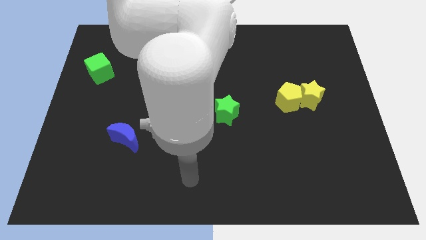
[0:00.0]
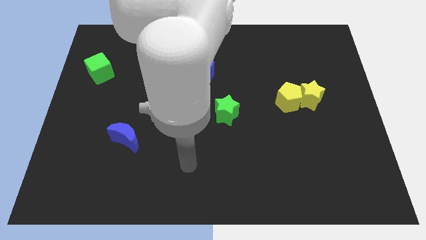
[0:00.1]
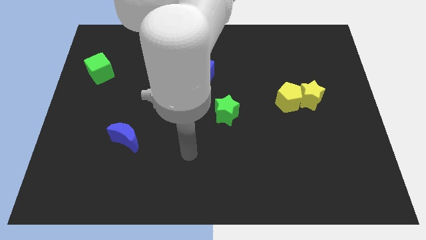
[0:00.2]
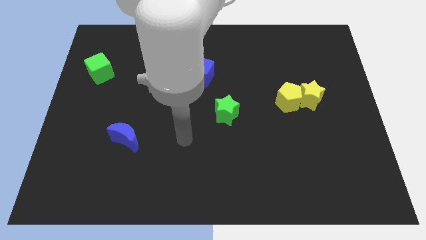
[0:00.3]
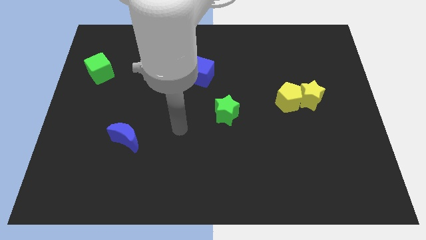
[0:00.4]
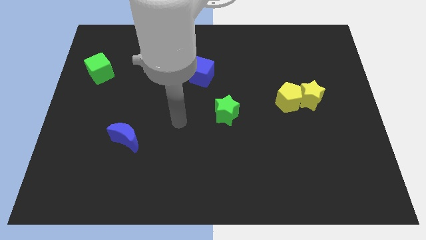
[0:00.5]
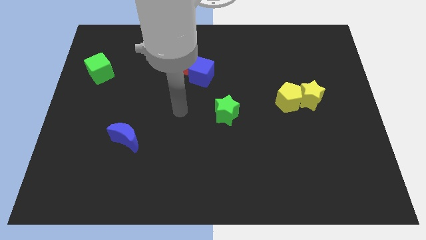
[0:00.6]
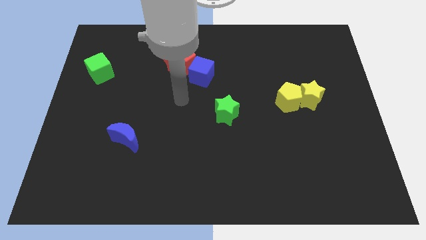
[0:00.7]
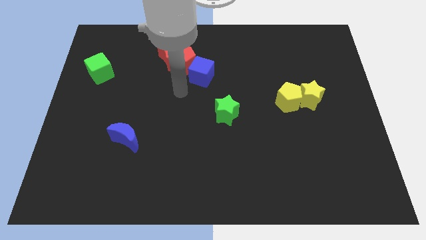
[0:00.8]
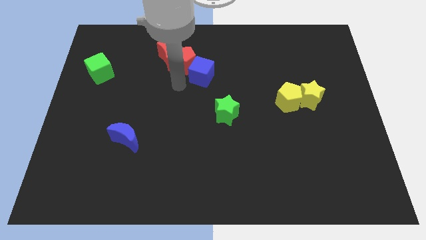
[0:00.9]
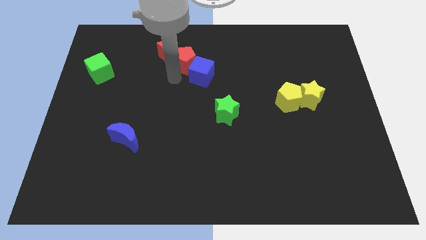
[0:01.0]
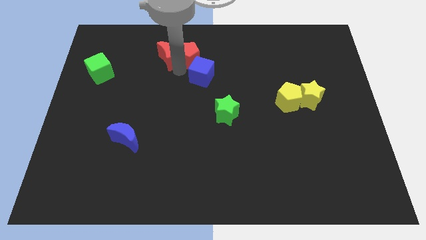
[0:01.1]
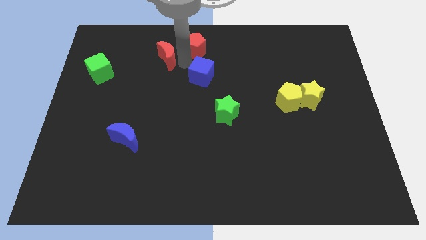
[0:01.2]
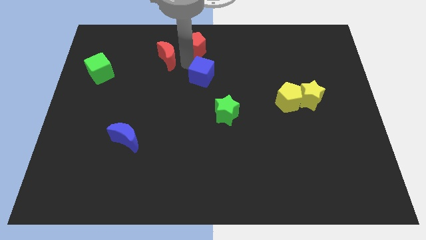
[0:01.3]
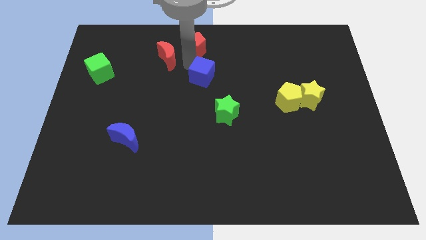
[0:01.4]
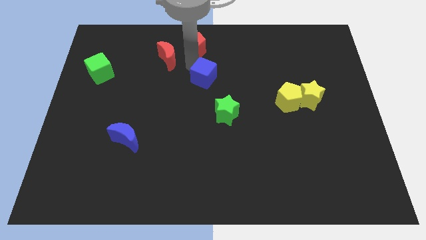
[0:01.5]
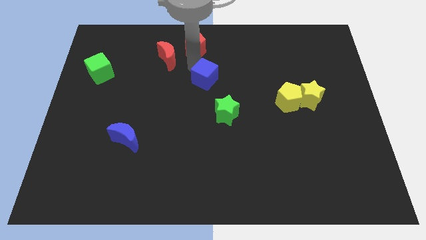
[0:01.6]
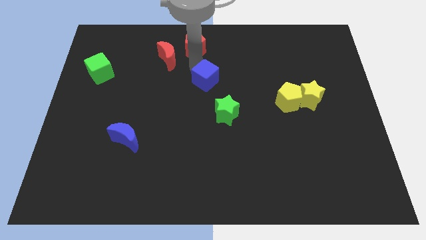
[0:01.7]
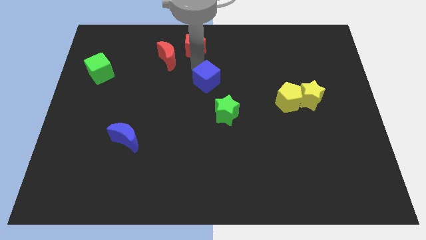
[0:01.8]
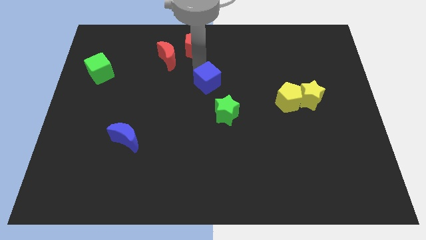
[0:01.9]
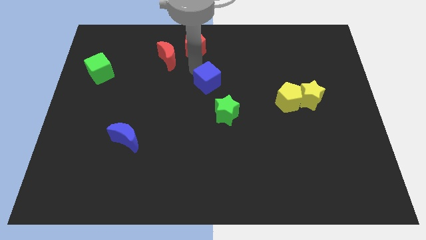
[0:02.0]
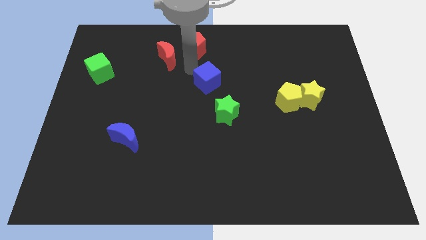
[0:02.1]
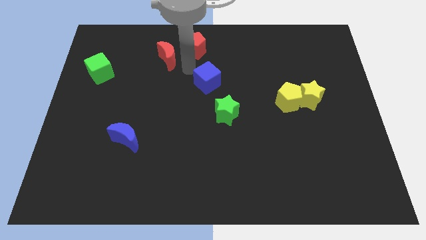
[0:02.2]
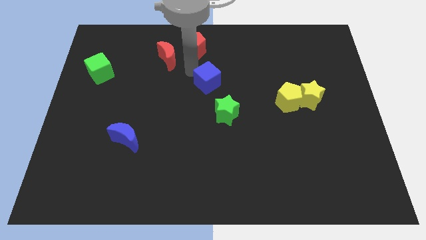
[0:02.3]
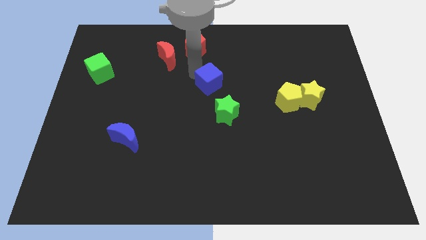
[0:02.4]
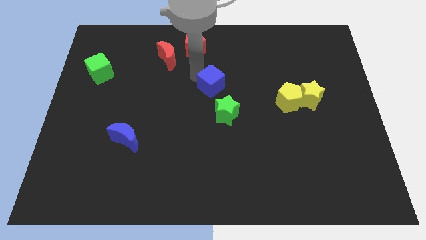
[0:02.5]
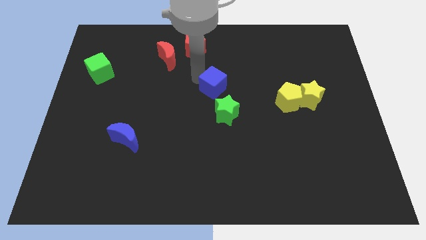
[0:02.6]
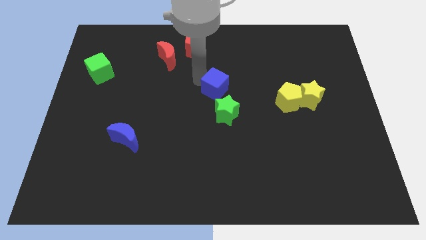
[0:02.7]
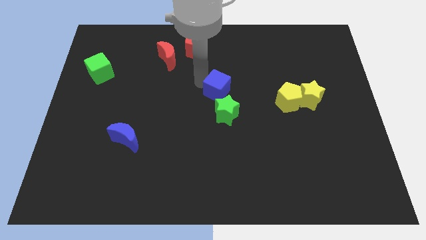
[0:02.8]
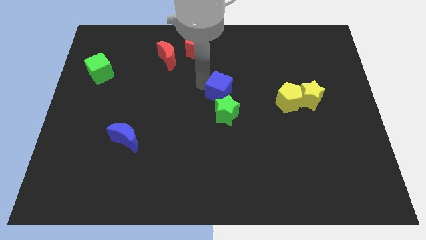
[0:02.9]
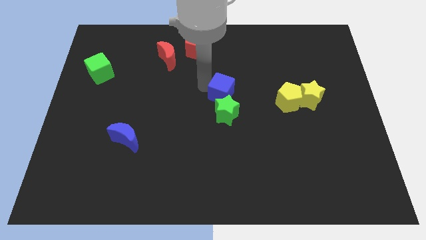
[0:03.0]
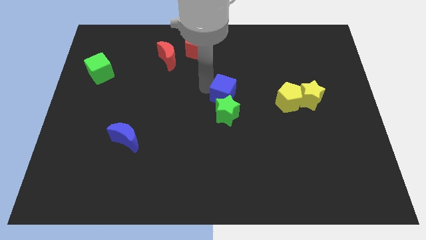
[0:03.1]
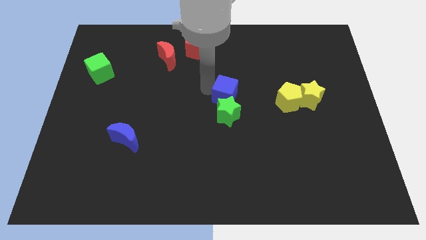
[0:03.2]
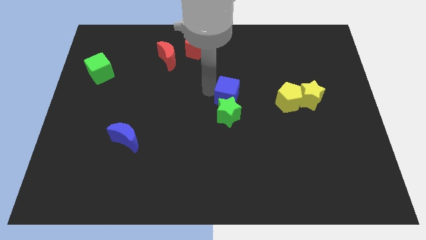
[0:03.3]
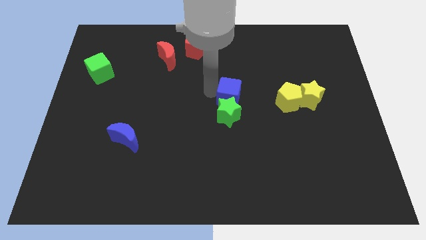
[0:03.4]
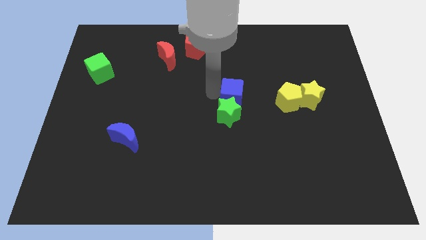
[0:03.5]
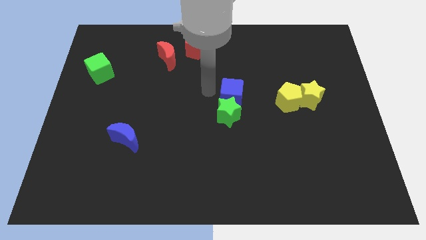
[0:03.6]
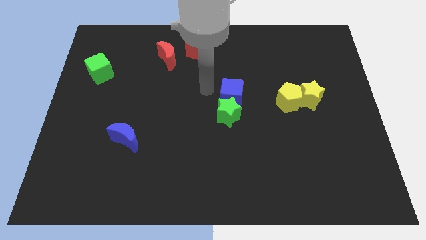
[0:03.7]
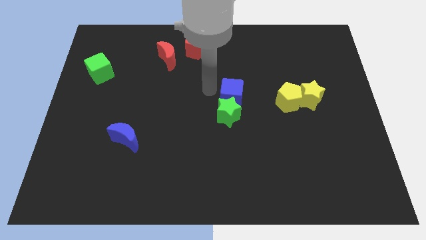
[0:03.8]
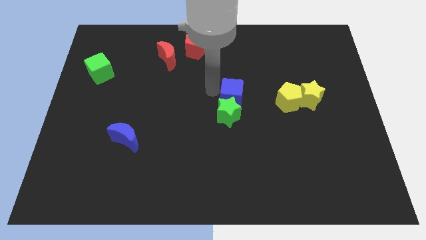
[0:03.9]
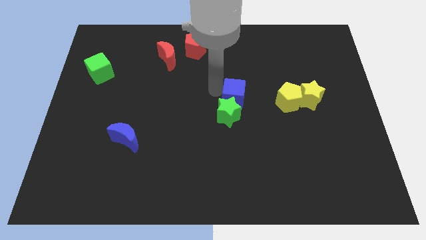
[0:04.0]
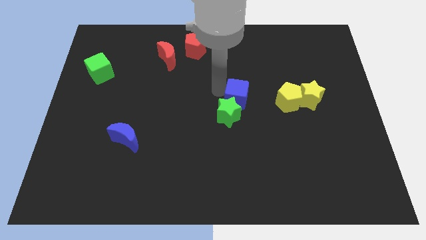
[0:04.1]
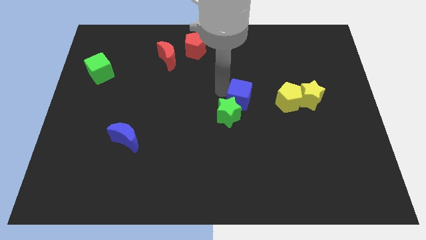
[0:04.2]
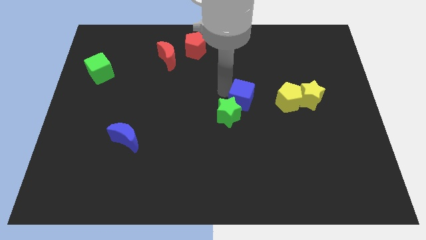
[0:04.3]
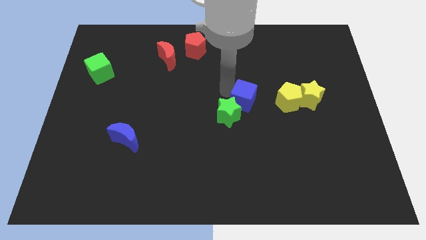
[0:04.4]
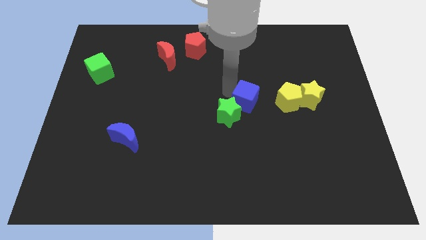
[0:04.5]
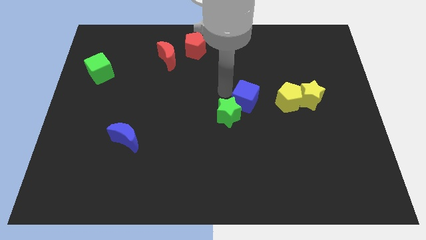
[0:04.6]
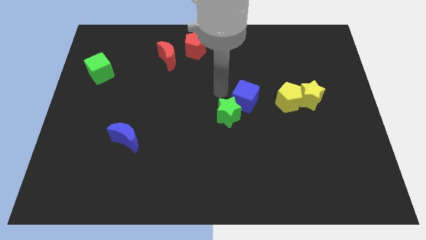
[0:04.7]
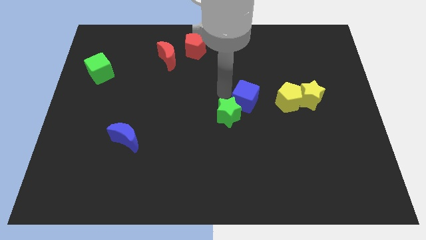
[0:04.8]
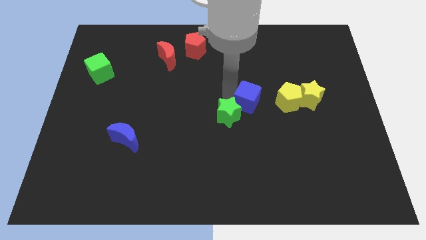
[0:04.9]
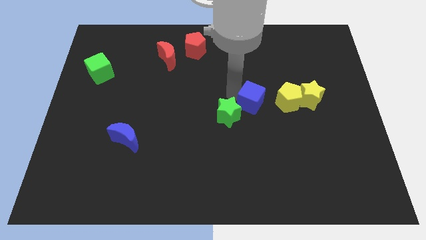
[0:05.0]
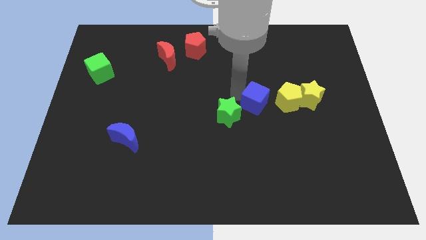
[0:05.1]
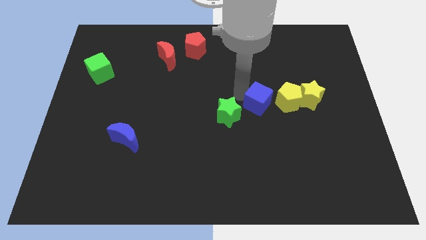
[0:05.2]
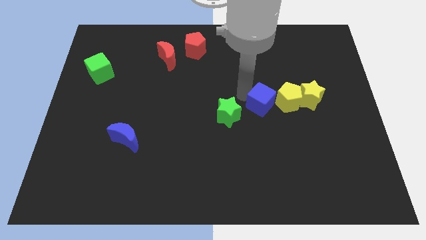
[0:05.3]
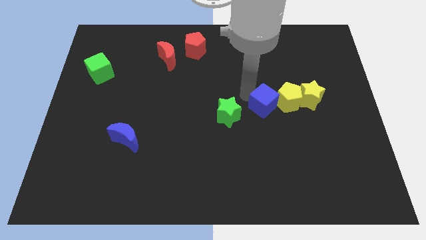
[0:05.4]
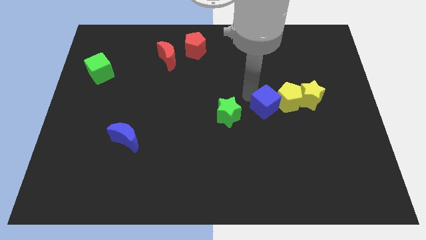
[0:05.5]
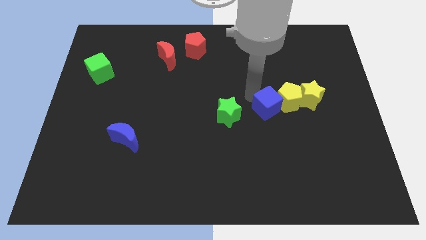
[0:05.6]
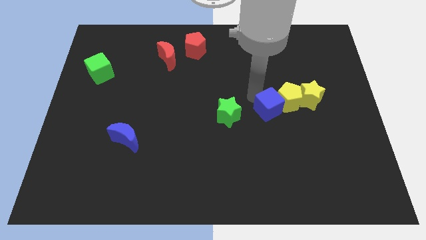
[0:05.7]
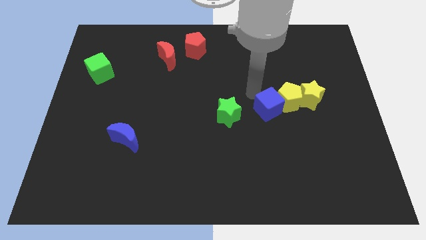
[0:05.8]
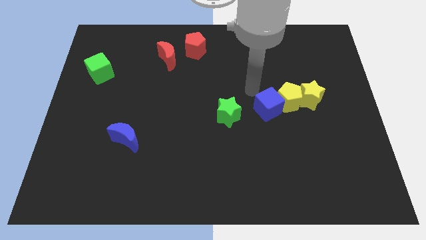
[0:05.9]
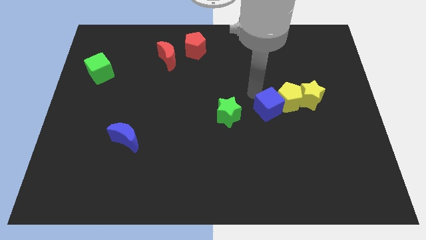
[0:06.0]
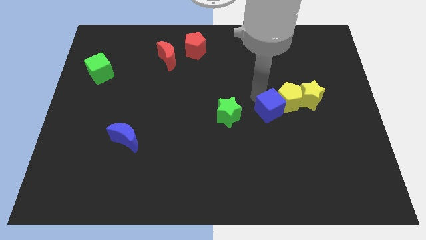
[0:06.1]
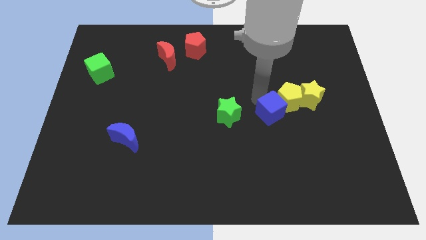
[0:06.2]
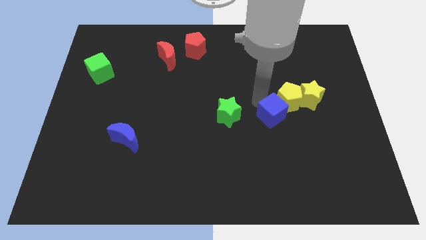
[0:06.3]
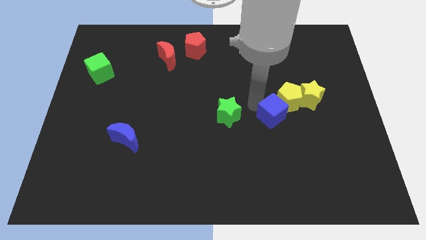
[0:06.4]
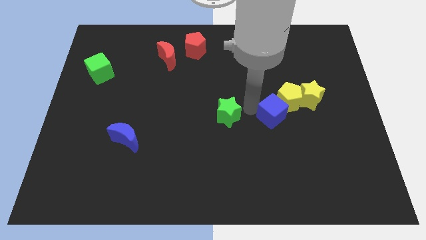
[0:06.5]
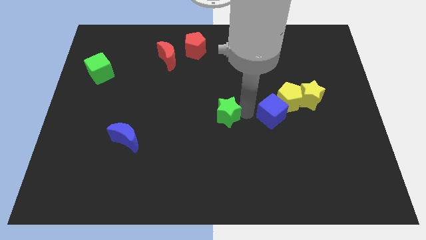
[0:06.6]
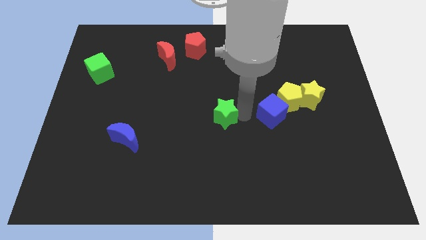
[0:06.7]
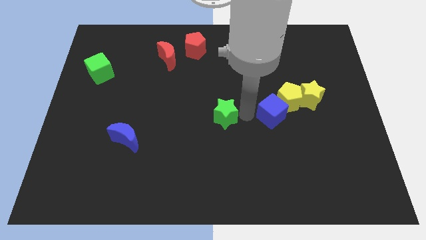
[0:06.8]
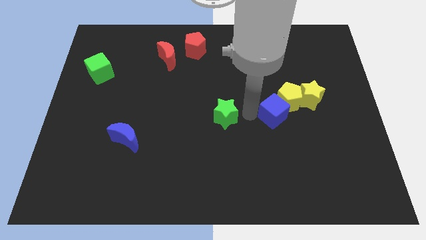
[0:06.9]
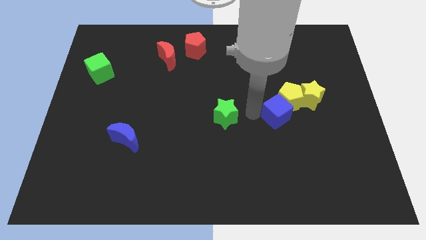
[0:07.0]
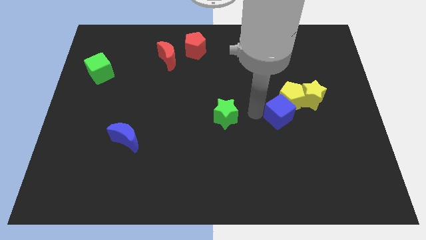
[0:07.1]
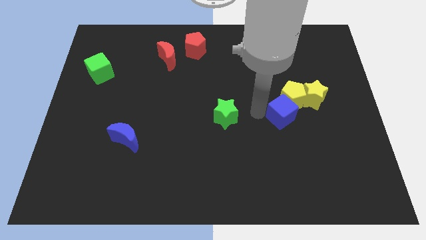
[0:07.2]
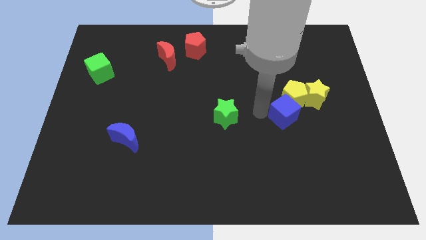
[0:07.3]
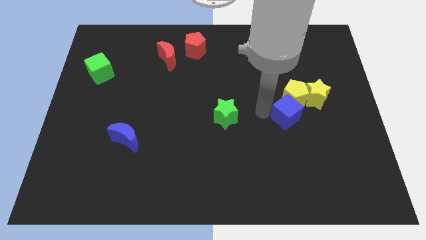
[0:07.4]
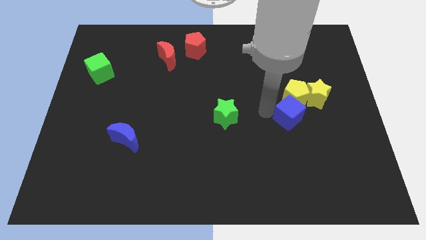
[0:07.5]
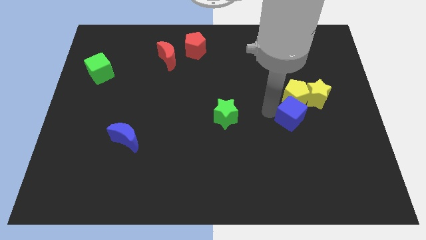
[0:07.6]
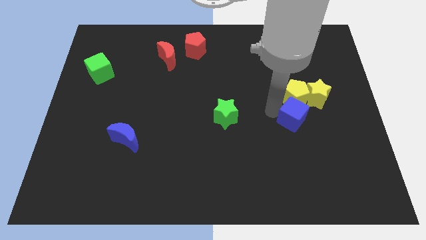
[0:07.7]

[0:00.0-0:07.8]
push the blue cube to the bottom right side of the yellow pentagon
